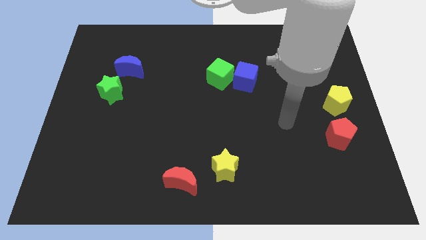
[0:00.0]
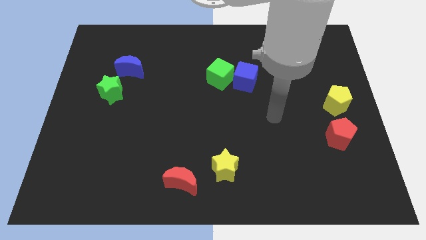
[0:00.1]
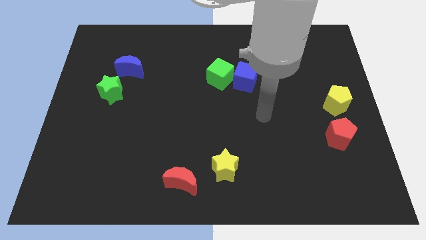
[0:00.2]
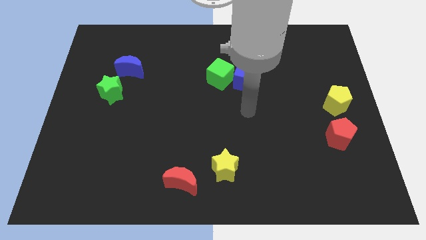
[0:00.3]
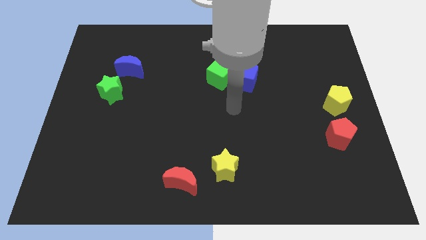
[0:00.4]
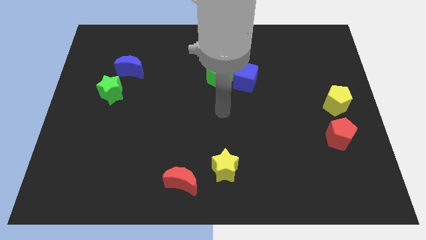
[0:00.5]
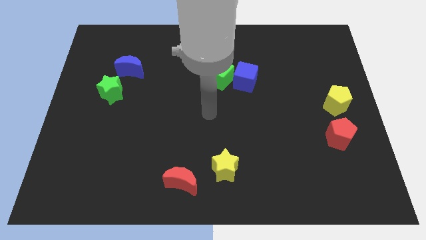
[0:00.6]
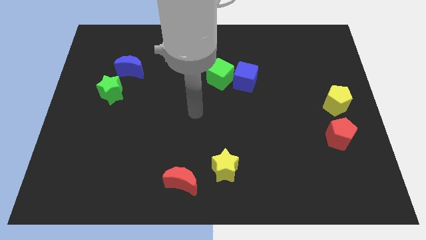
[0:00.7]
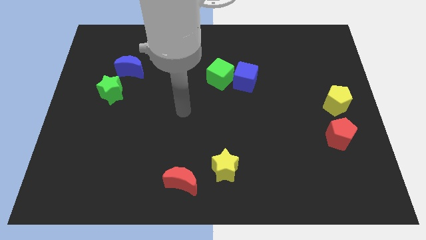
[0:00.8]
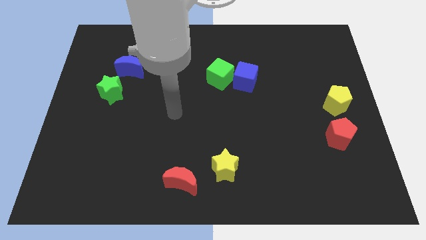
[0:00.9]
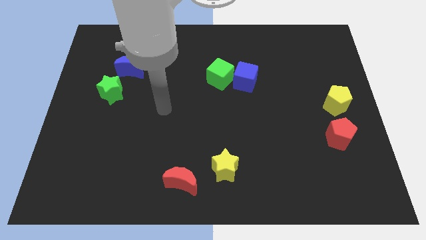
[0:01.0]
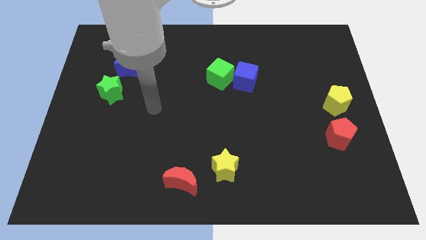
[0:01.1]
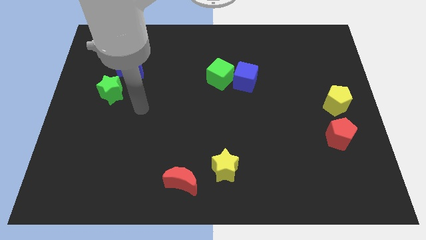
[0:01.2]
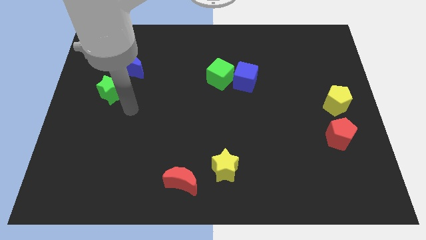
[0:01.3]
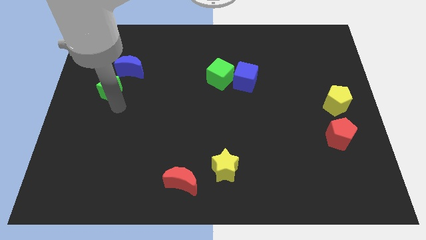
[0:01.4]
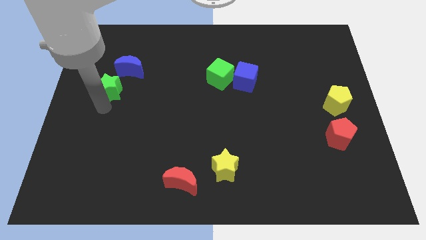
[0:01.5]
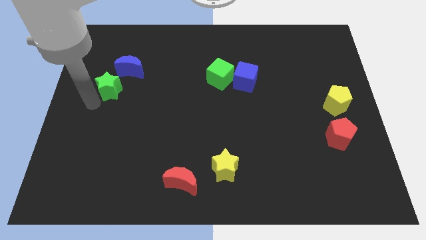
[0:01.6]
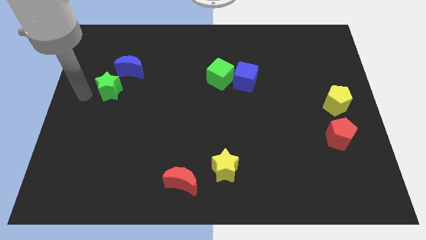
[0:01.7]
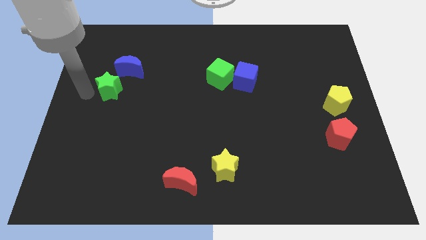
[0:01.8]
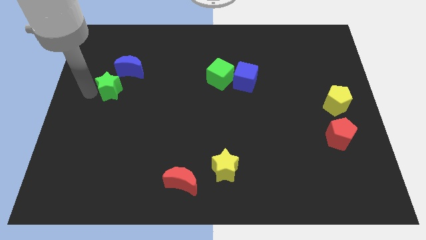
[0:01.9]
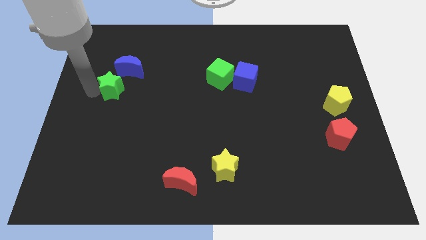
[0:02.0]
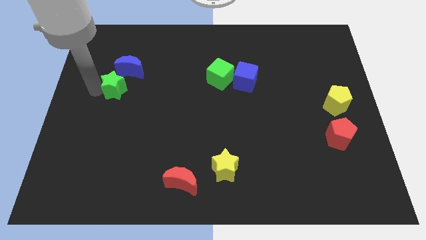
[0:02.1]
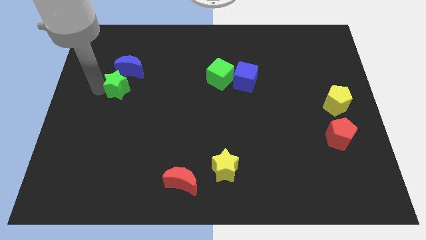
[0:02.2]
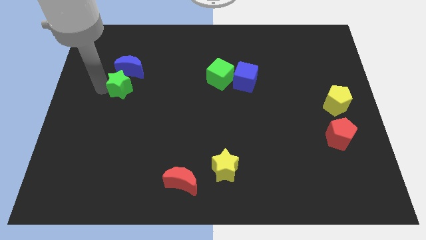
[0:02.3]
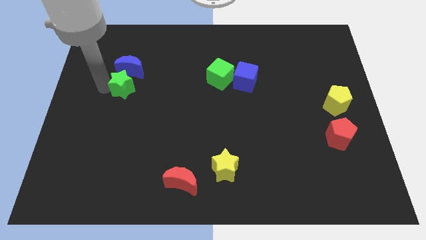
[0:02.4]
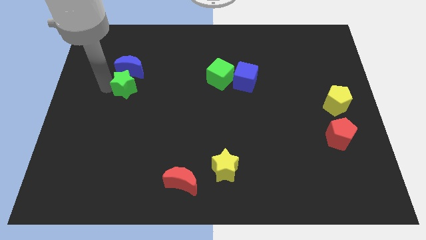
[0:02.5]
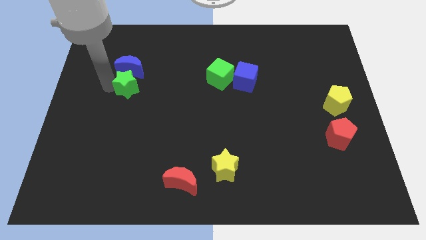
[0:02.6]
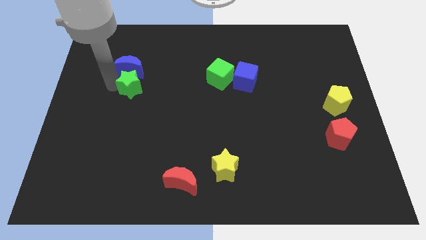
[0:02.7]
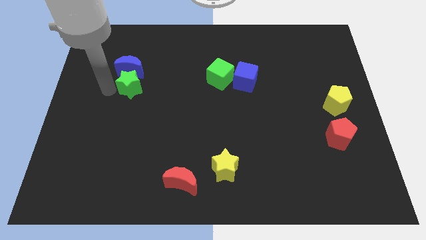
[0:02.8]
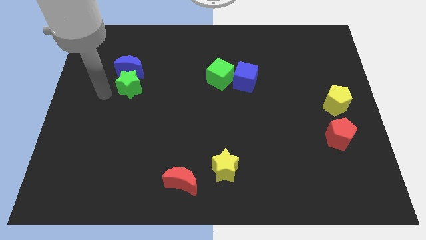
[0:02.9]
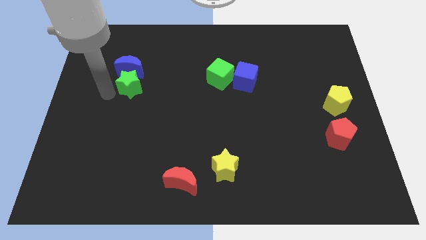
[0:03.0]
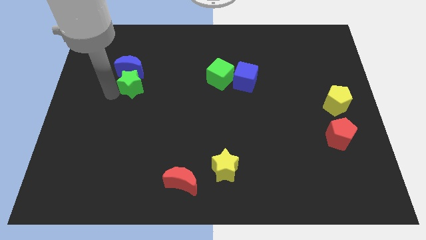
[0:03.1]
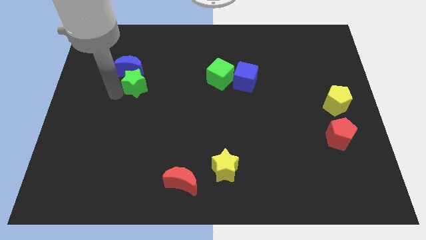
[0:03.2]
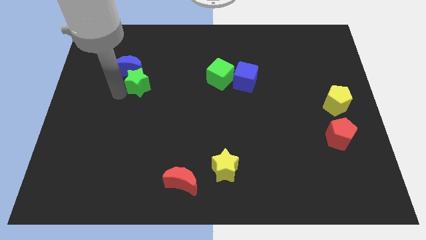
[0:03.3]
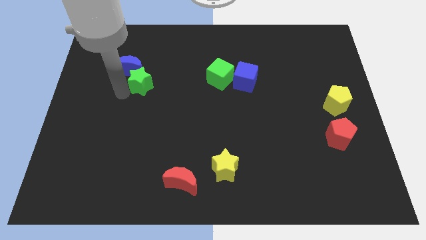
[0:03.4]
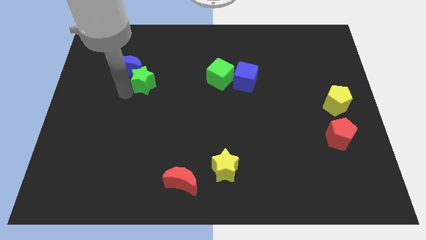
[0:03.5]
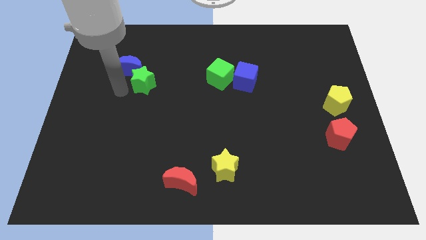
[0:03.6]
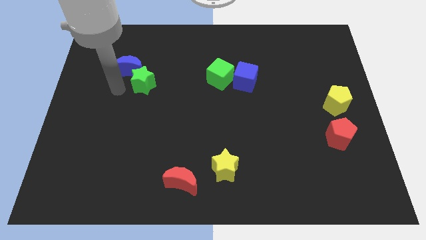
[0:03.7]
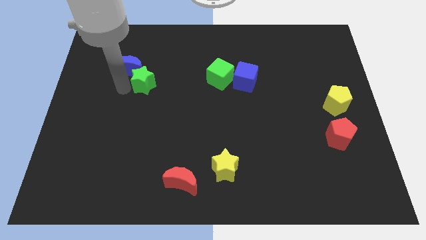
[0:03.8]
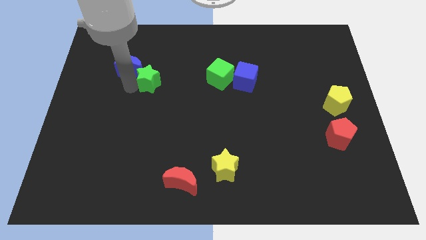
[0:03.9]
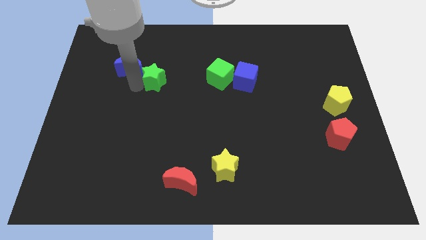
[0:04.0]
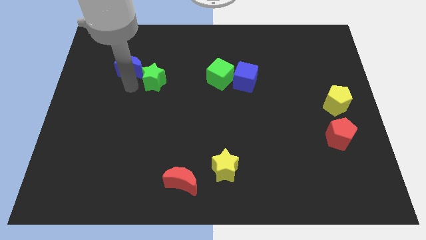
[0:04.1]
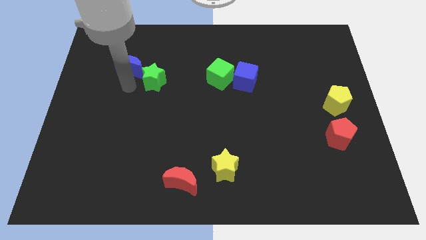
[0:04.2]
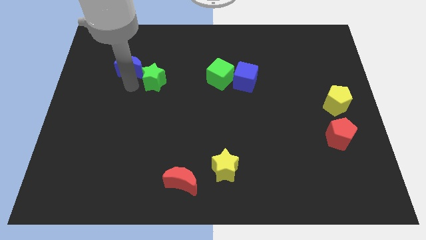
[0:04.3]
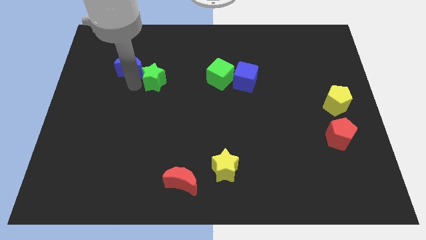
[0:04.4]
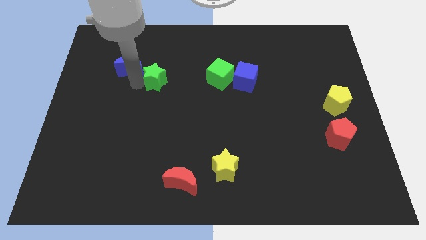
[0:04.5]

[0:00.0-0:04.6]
push the green star to the left of the green cube

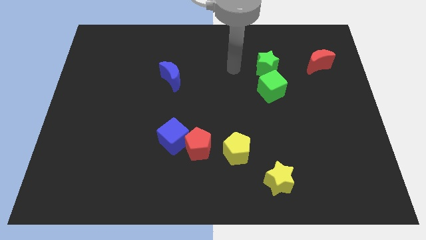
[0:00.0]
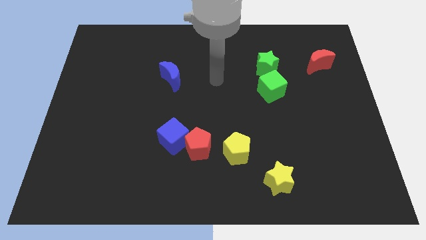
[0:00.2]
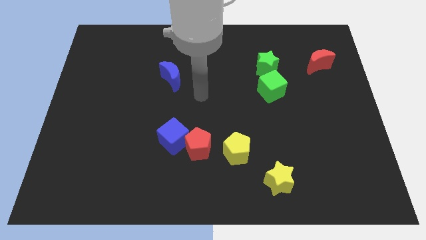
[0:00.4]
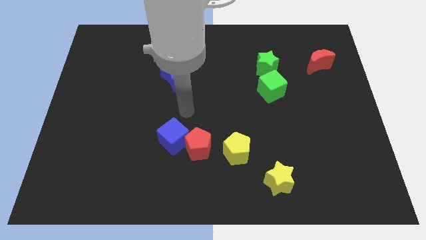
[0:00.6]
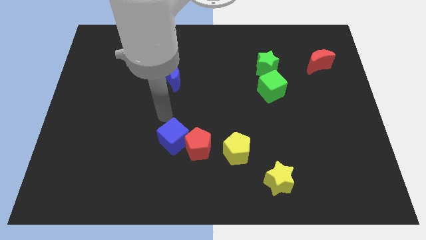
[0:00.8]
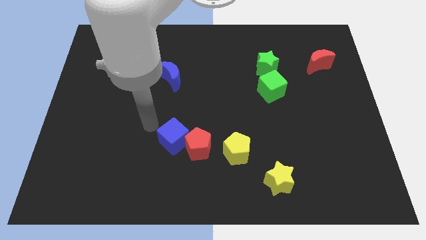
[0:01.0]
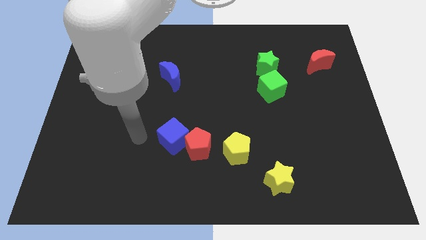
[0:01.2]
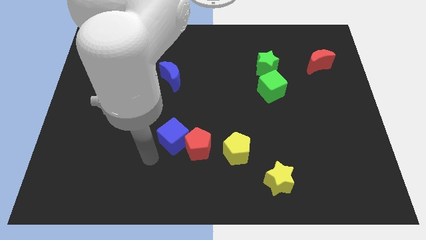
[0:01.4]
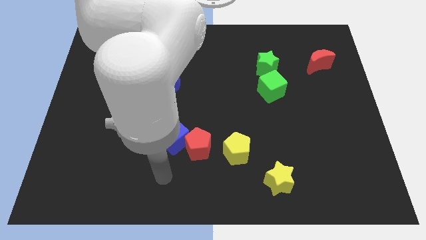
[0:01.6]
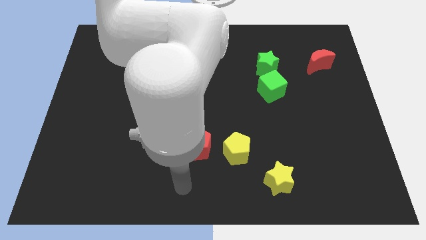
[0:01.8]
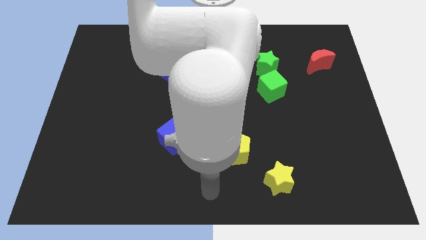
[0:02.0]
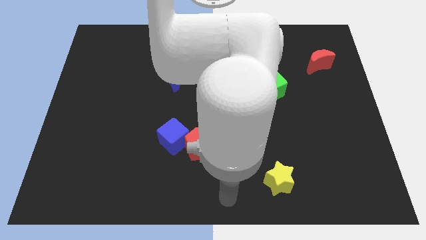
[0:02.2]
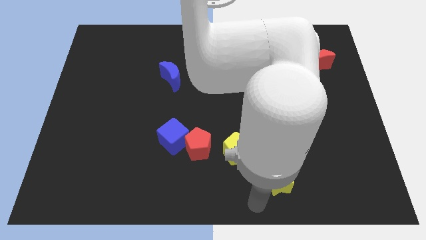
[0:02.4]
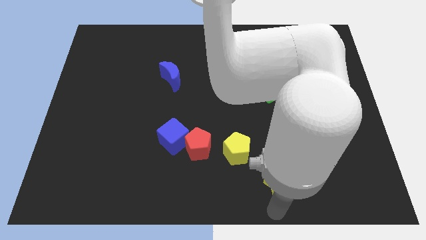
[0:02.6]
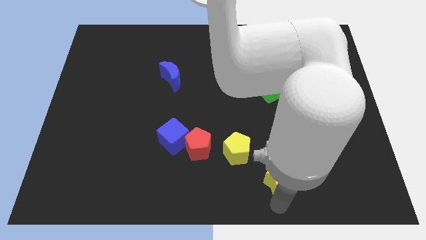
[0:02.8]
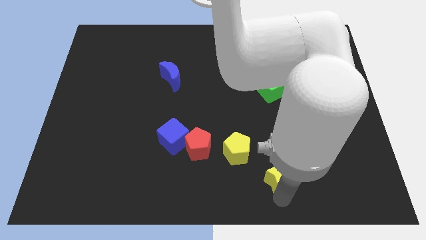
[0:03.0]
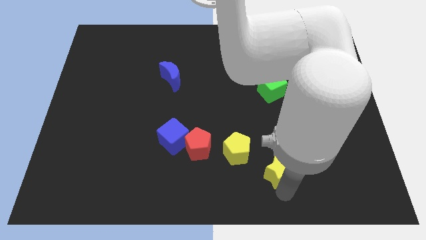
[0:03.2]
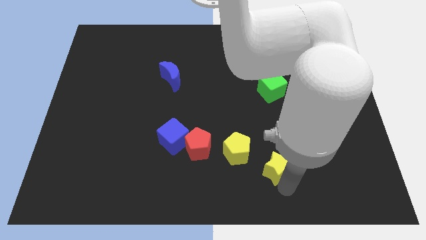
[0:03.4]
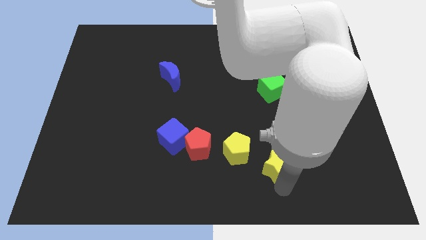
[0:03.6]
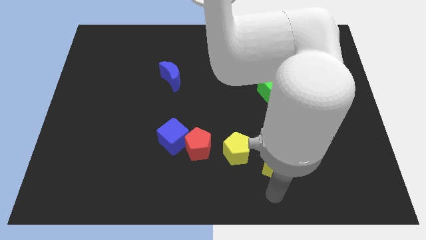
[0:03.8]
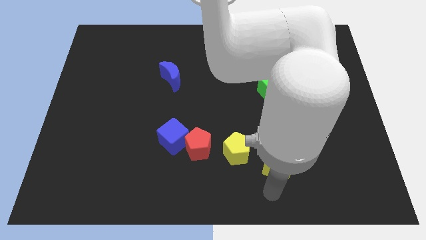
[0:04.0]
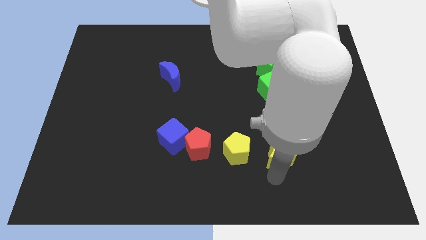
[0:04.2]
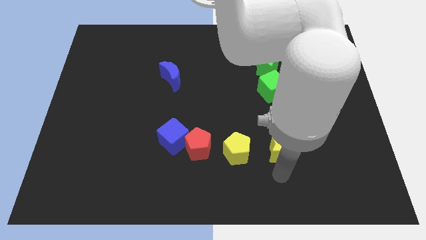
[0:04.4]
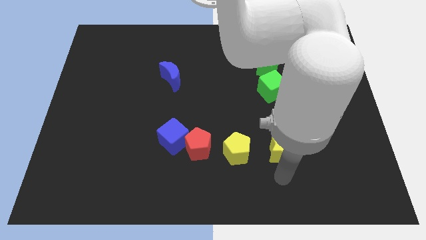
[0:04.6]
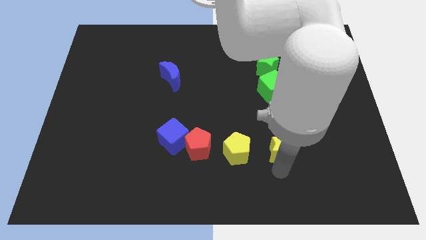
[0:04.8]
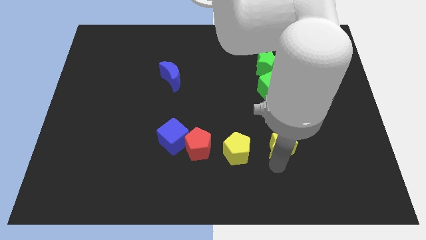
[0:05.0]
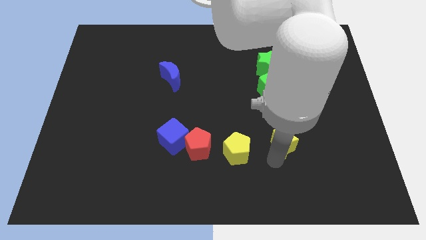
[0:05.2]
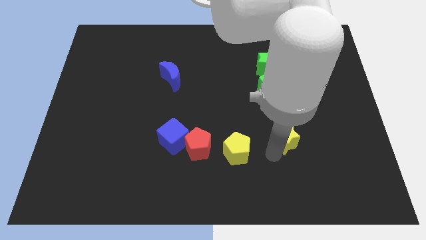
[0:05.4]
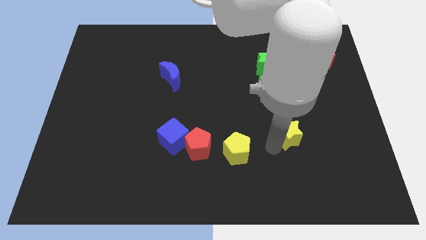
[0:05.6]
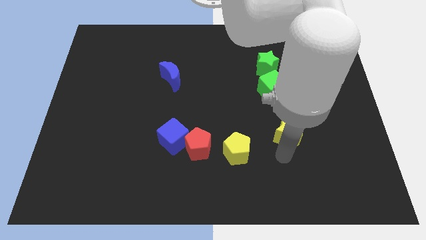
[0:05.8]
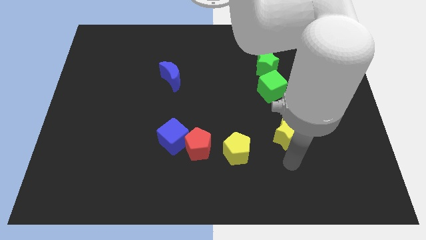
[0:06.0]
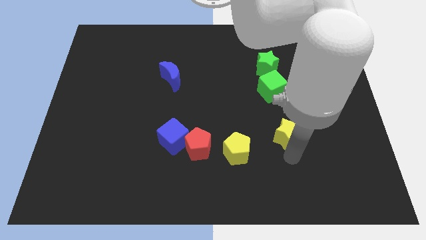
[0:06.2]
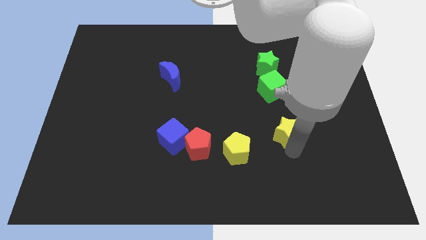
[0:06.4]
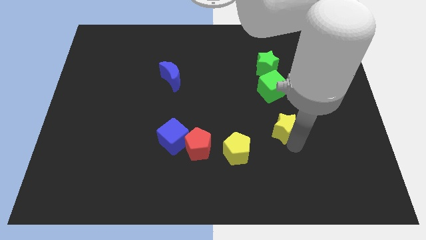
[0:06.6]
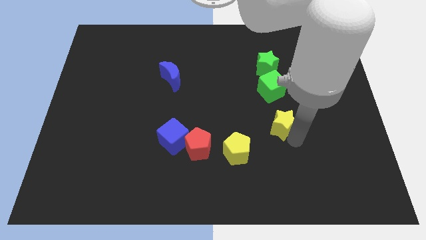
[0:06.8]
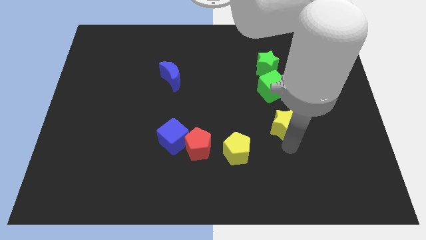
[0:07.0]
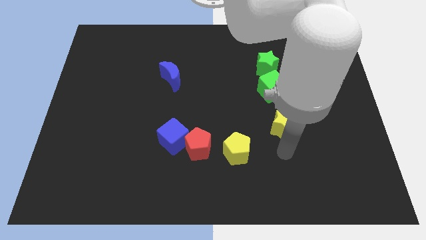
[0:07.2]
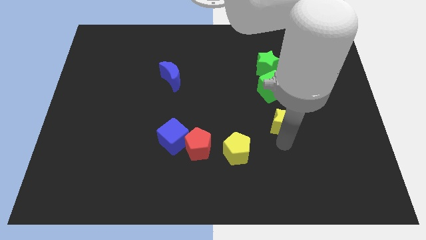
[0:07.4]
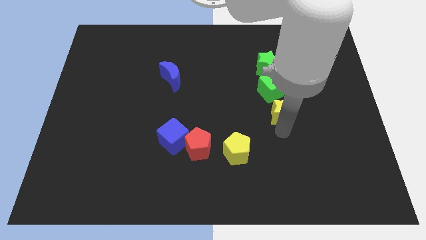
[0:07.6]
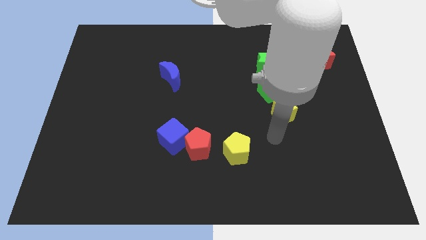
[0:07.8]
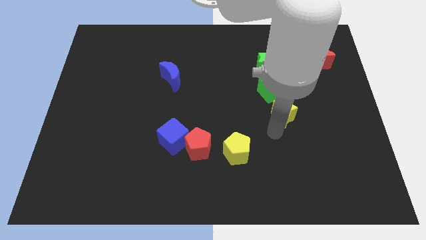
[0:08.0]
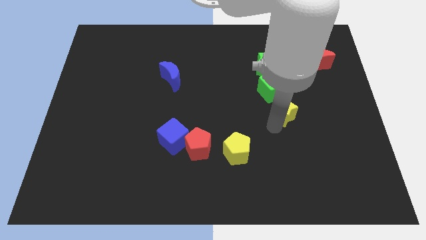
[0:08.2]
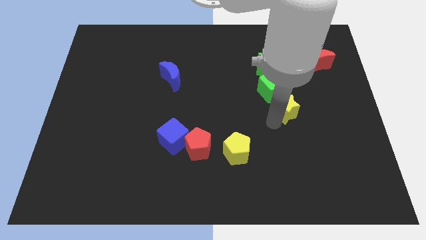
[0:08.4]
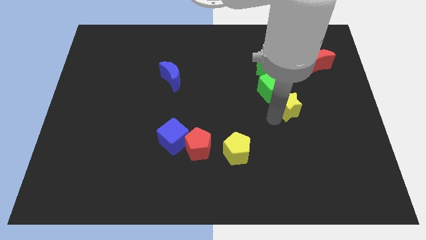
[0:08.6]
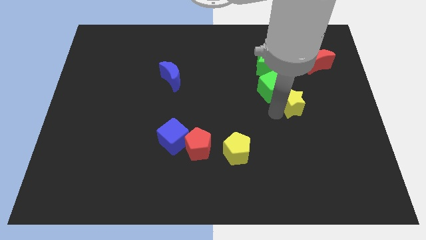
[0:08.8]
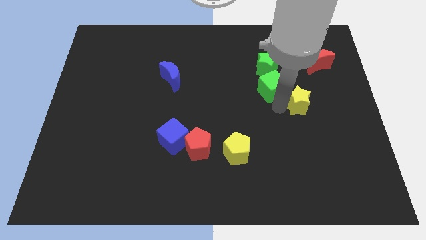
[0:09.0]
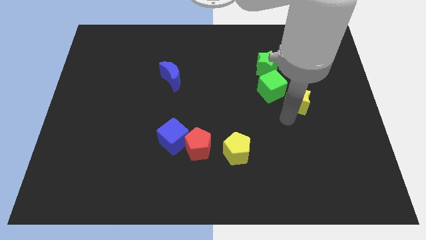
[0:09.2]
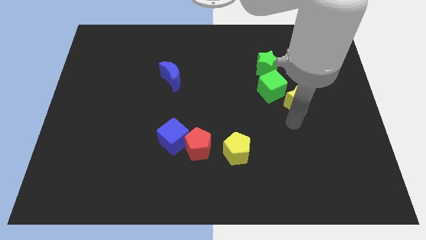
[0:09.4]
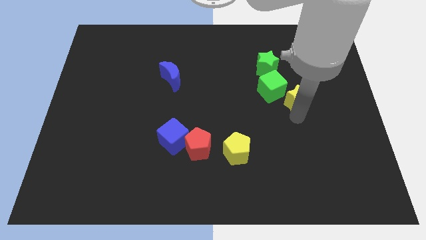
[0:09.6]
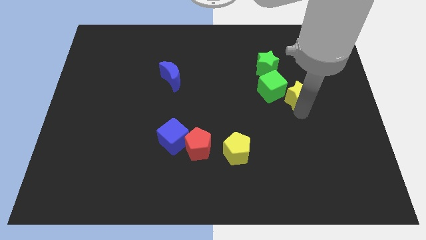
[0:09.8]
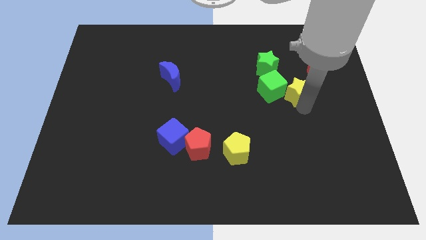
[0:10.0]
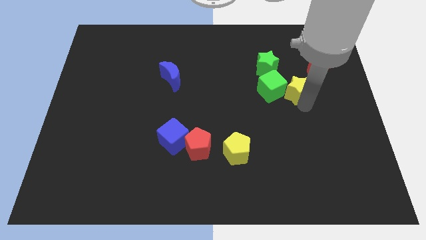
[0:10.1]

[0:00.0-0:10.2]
slide the yellow star to the bottom left of the red moon
